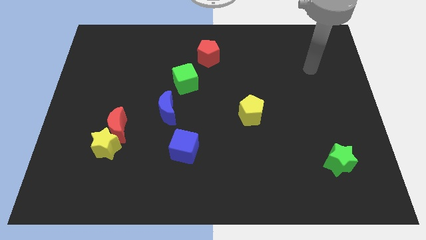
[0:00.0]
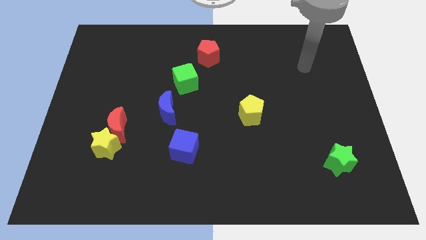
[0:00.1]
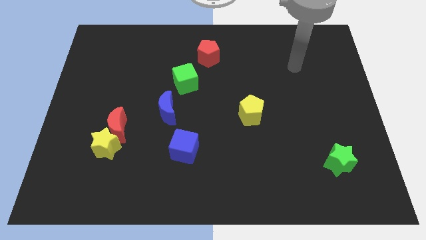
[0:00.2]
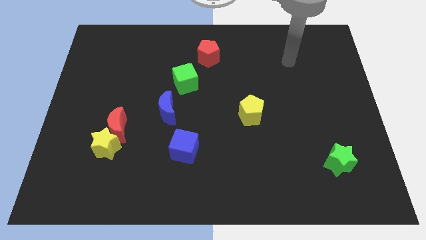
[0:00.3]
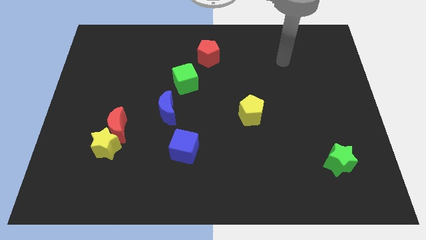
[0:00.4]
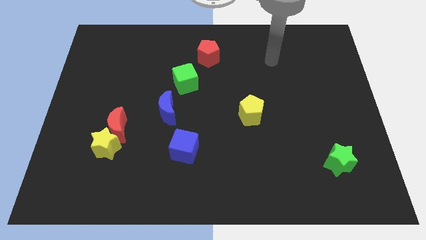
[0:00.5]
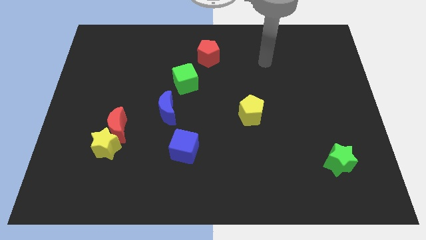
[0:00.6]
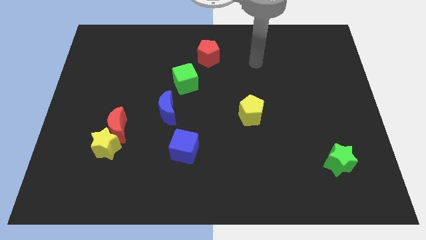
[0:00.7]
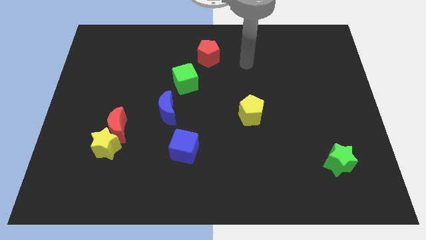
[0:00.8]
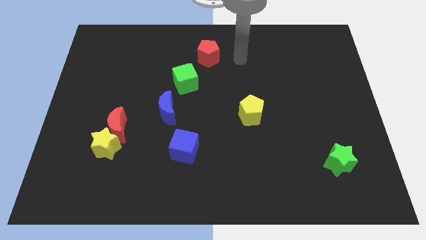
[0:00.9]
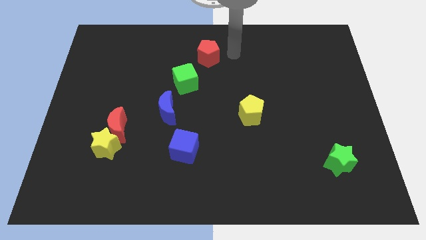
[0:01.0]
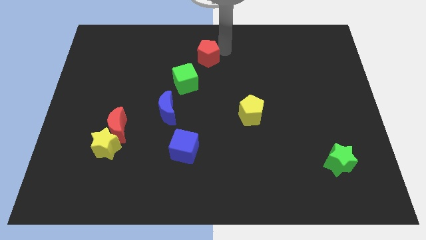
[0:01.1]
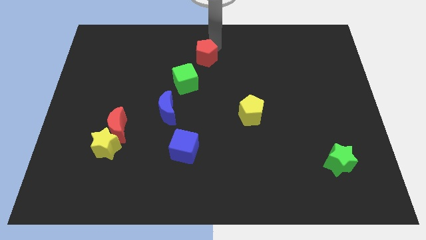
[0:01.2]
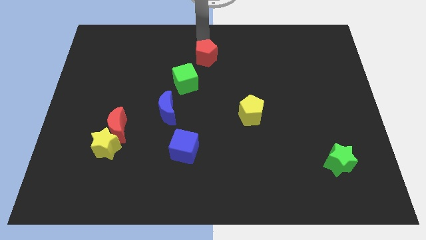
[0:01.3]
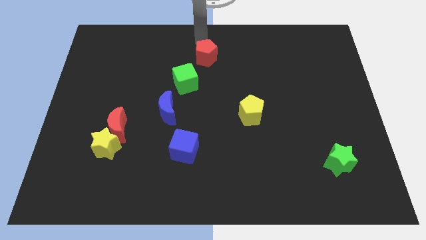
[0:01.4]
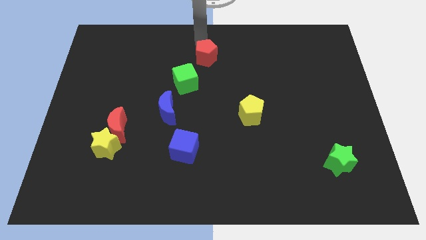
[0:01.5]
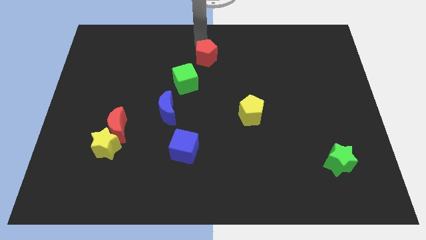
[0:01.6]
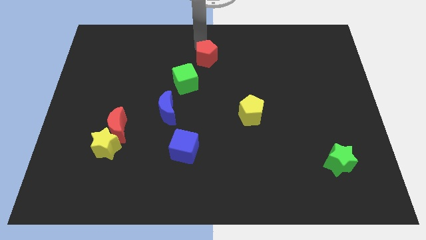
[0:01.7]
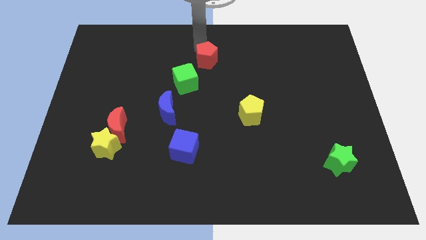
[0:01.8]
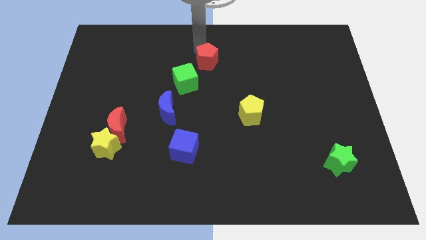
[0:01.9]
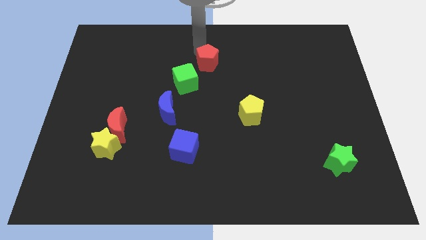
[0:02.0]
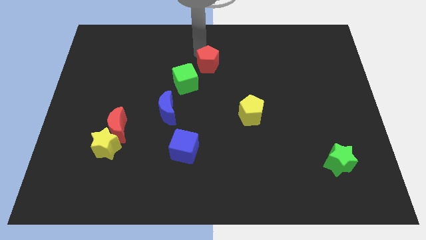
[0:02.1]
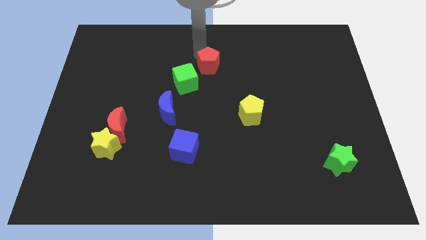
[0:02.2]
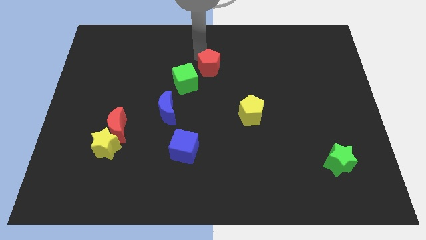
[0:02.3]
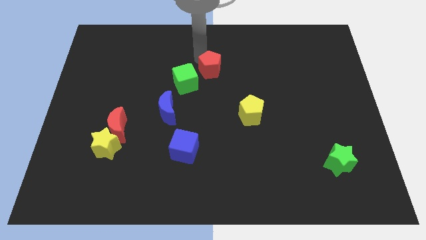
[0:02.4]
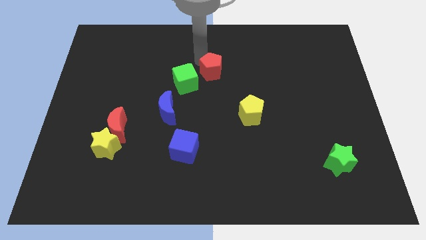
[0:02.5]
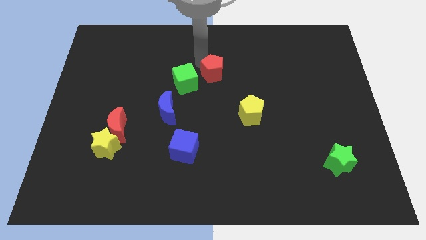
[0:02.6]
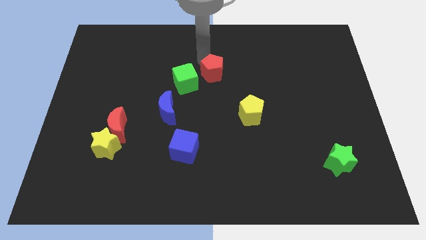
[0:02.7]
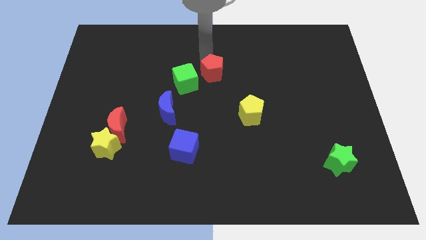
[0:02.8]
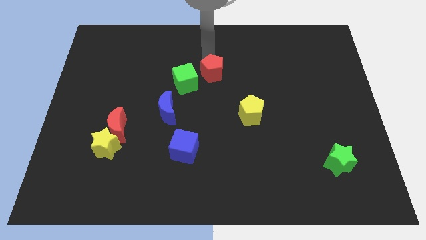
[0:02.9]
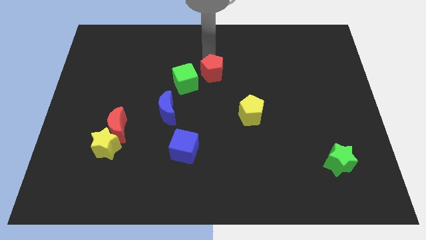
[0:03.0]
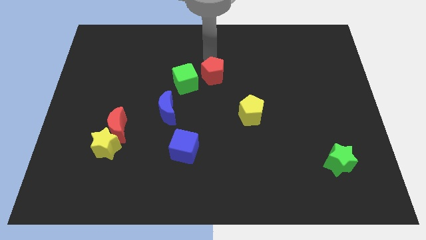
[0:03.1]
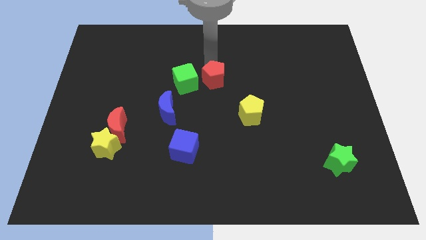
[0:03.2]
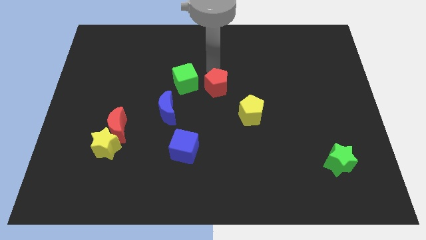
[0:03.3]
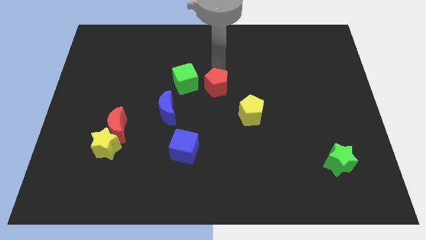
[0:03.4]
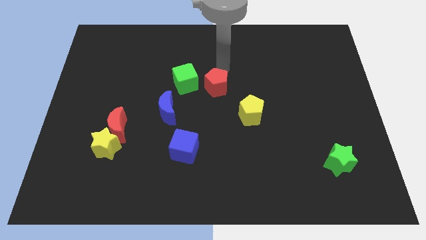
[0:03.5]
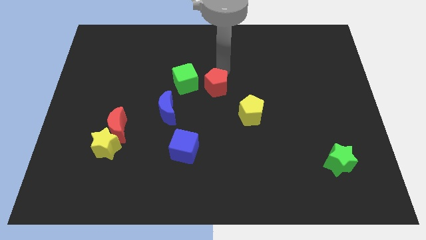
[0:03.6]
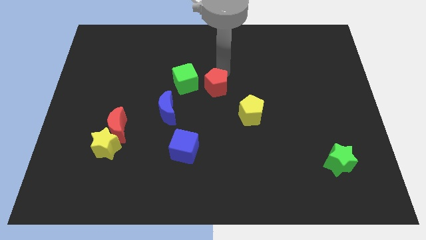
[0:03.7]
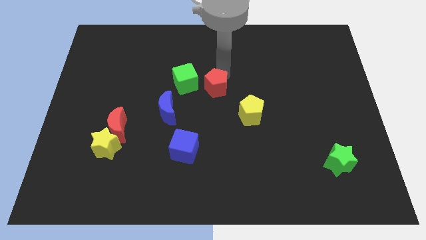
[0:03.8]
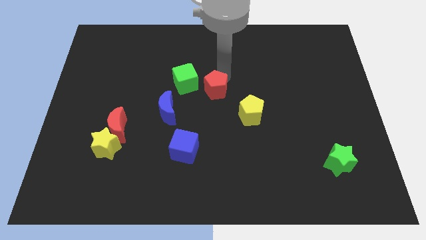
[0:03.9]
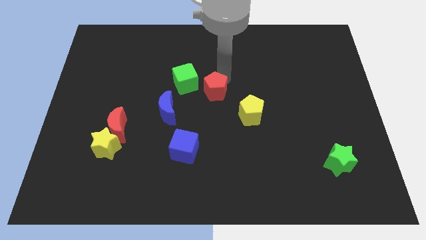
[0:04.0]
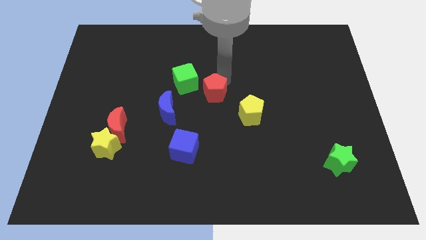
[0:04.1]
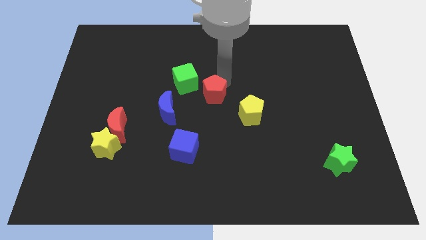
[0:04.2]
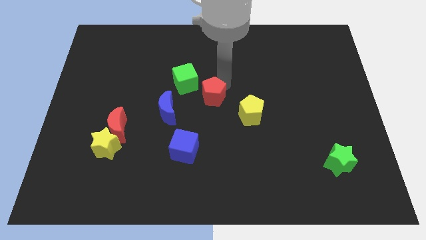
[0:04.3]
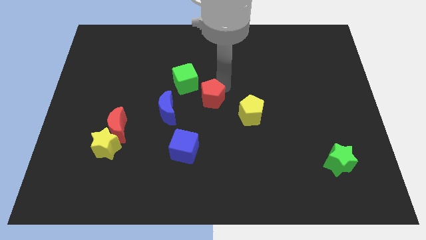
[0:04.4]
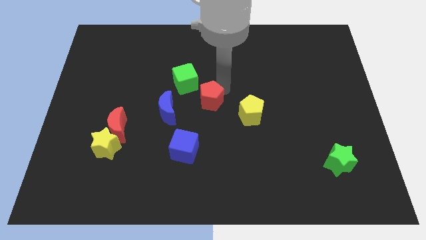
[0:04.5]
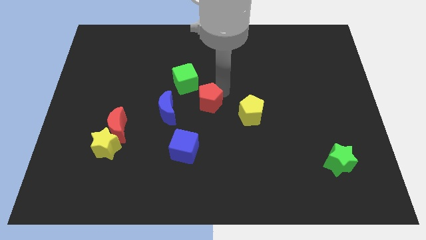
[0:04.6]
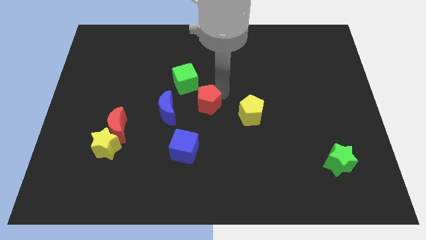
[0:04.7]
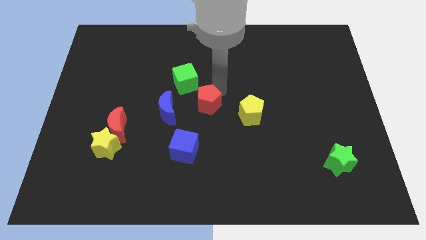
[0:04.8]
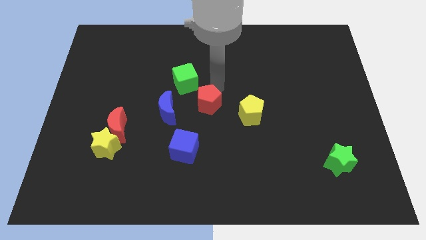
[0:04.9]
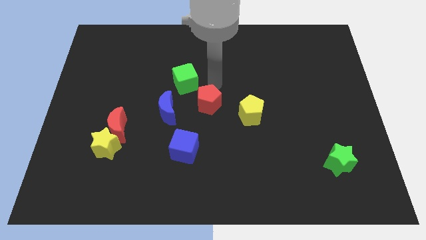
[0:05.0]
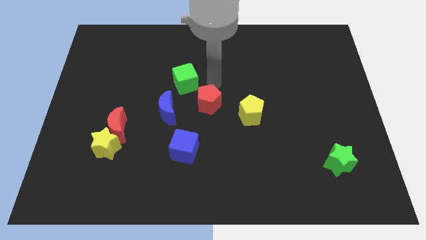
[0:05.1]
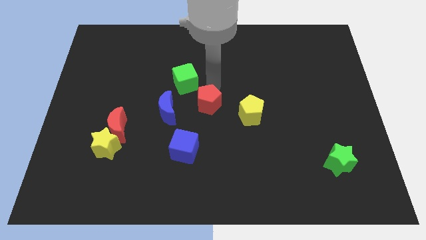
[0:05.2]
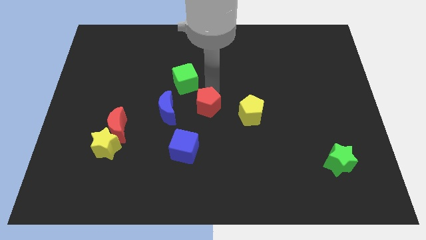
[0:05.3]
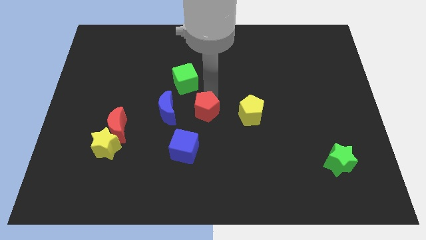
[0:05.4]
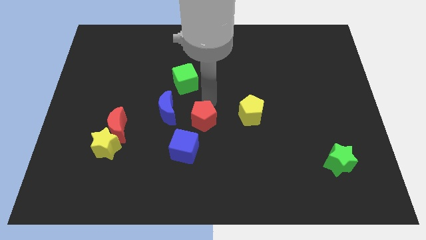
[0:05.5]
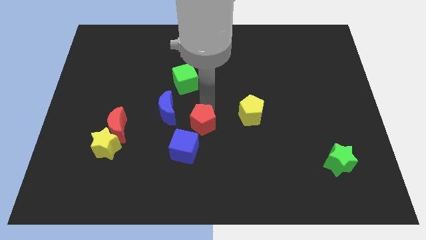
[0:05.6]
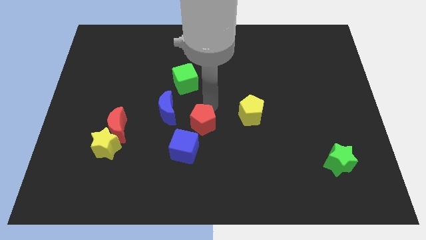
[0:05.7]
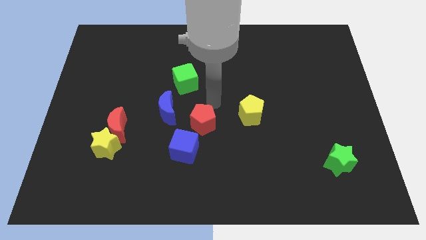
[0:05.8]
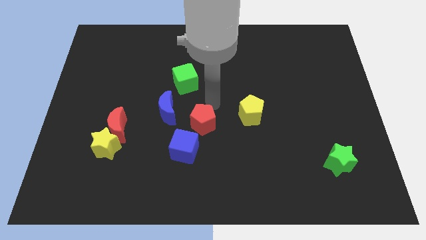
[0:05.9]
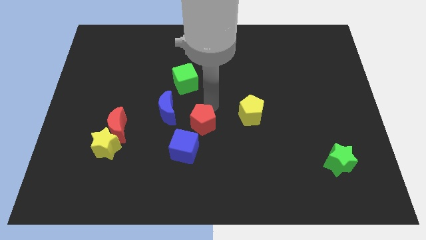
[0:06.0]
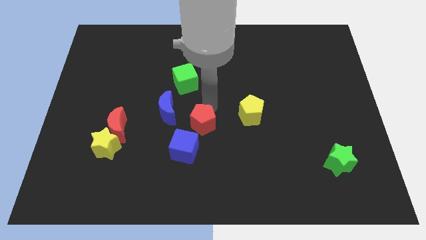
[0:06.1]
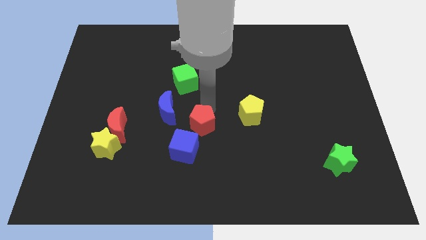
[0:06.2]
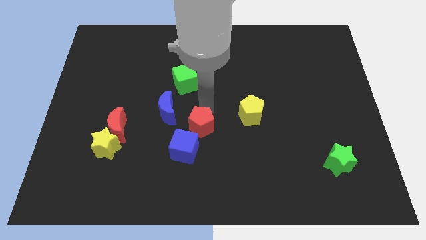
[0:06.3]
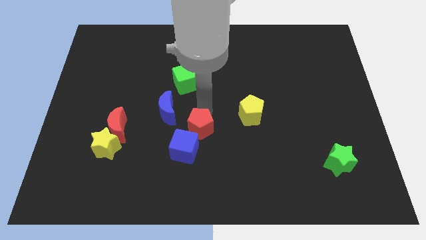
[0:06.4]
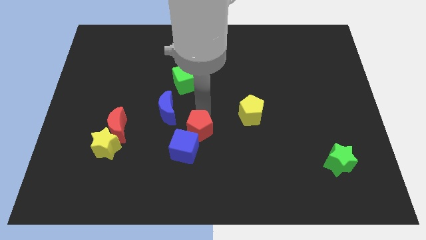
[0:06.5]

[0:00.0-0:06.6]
put the red pentagon next to the blue cube

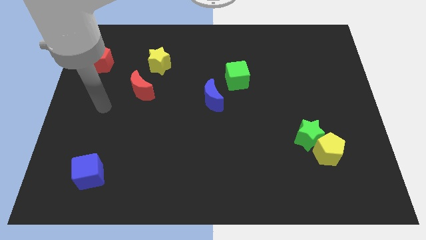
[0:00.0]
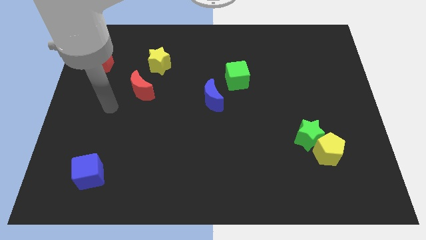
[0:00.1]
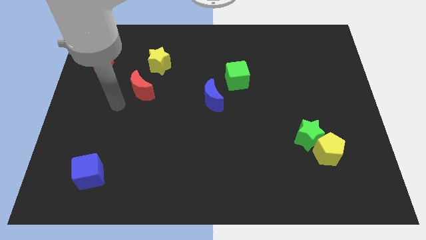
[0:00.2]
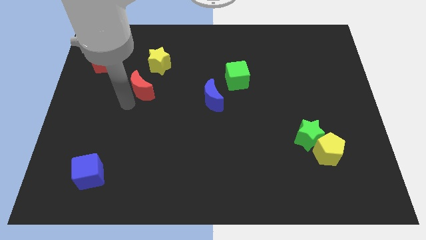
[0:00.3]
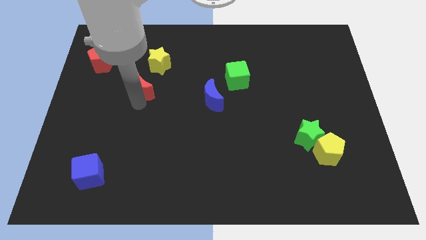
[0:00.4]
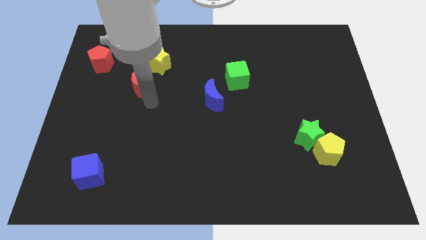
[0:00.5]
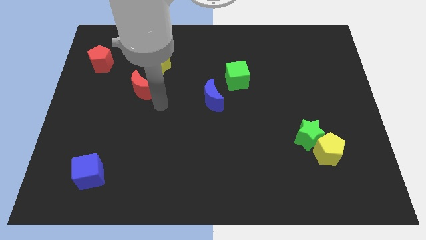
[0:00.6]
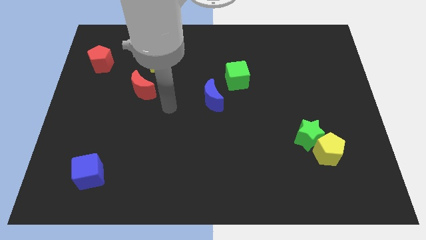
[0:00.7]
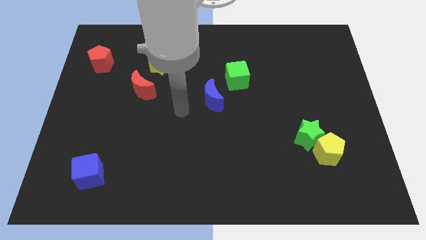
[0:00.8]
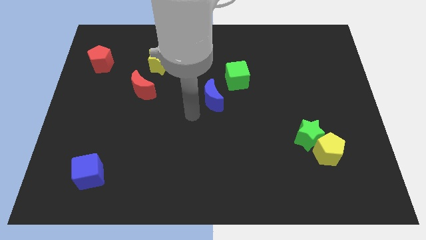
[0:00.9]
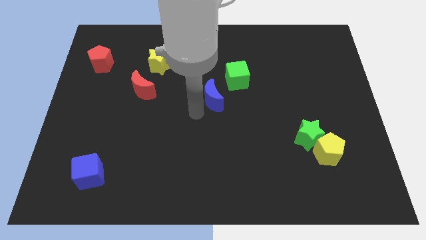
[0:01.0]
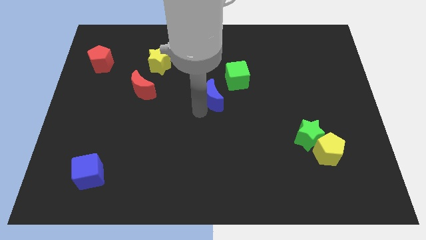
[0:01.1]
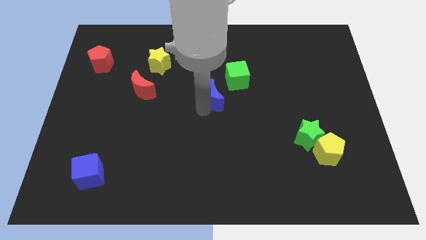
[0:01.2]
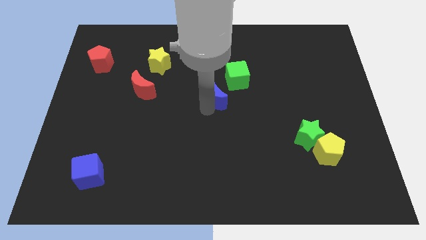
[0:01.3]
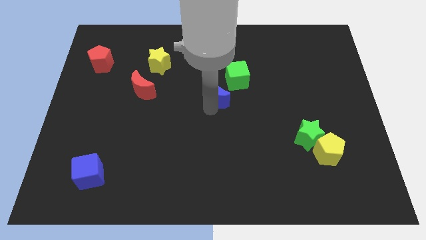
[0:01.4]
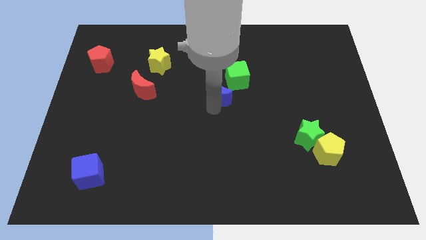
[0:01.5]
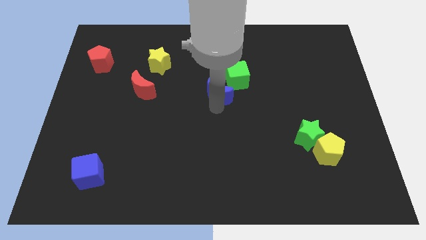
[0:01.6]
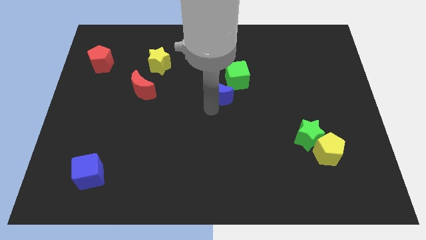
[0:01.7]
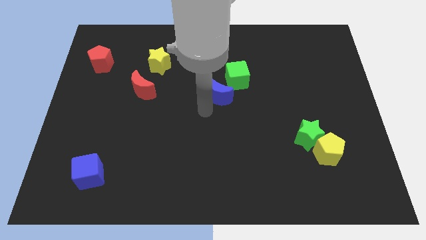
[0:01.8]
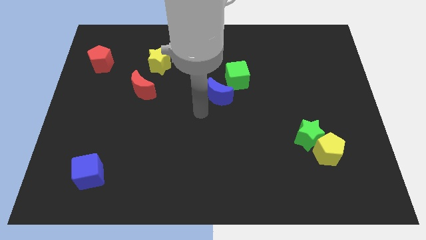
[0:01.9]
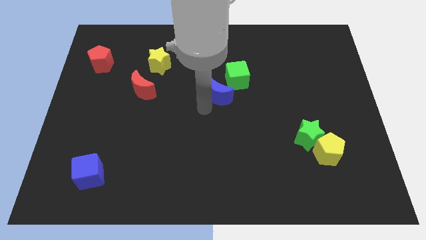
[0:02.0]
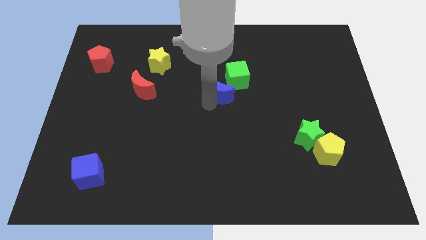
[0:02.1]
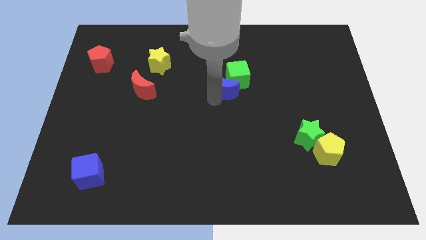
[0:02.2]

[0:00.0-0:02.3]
move the blue moon next to the green cube

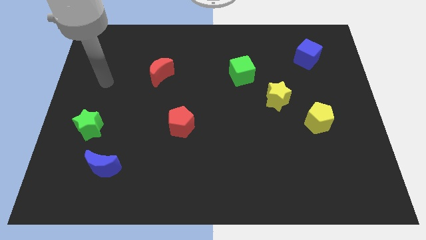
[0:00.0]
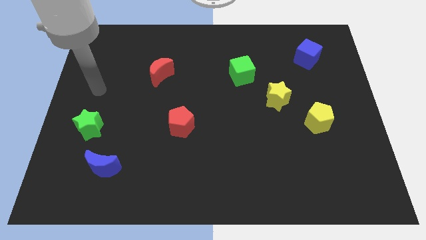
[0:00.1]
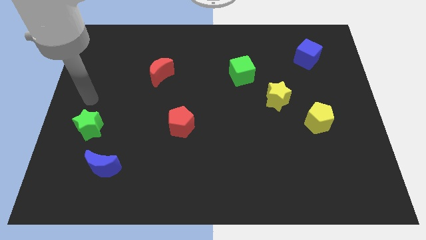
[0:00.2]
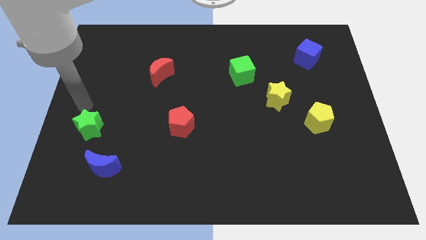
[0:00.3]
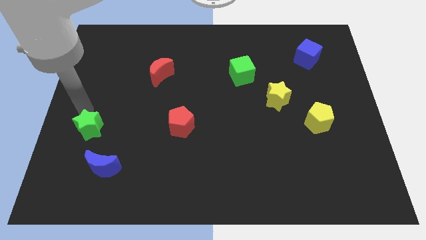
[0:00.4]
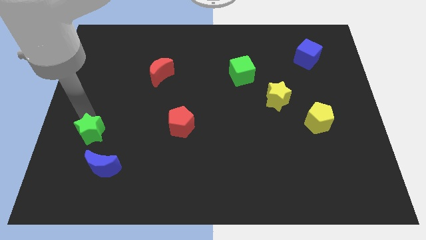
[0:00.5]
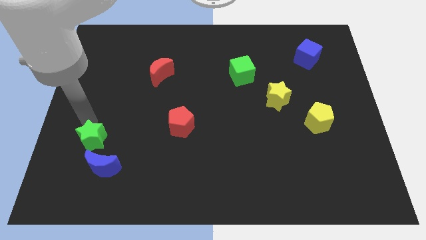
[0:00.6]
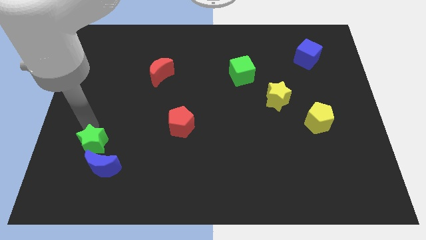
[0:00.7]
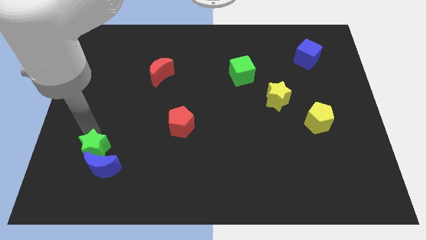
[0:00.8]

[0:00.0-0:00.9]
slide the green star to the blue moon
